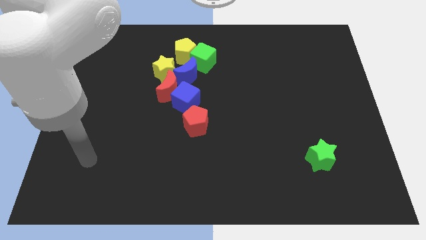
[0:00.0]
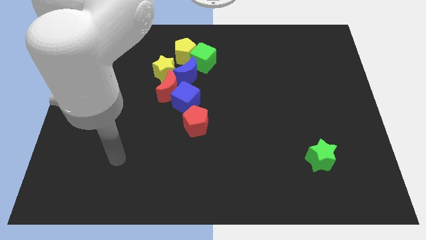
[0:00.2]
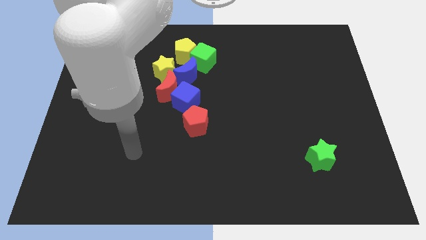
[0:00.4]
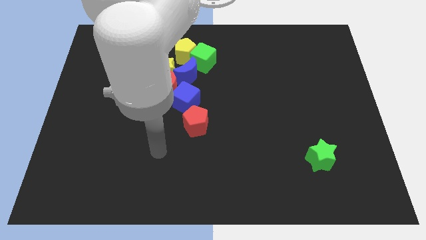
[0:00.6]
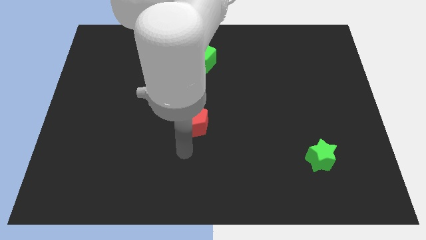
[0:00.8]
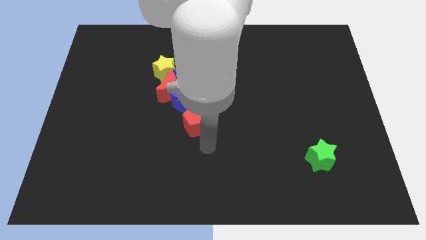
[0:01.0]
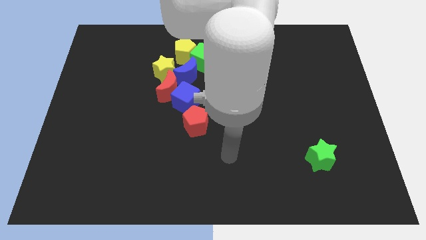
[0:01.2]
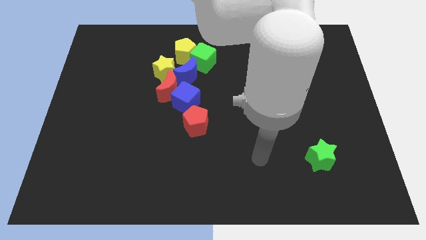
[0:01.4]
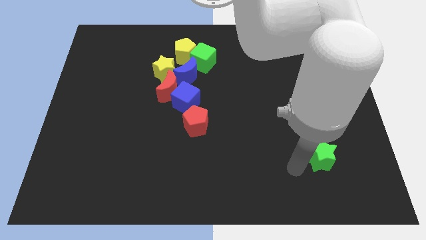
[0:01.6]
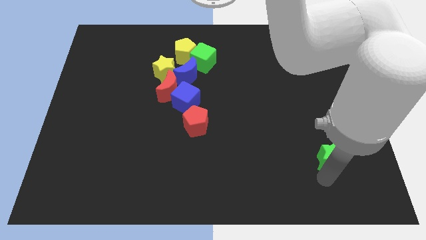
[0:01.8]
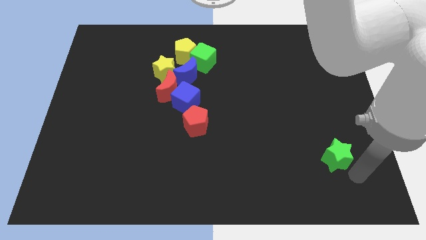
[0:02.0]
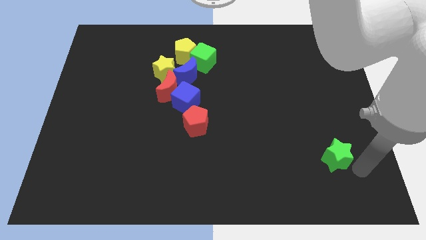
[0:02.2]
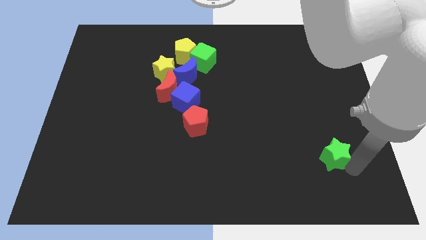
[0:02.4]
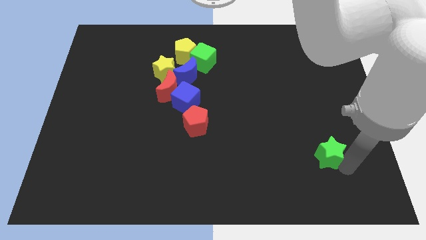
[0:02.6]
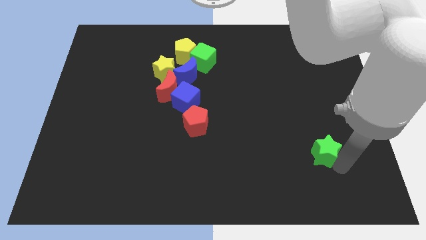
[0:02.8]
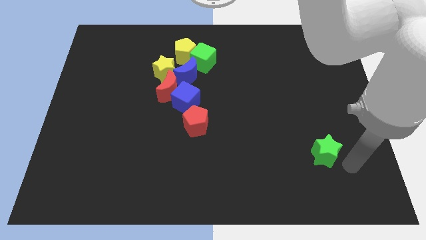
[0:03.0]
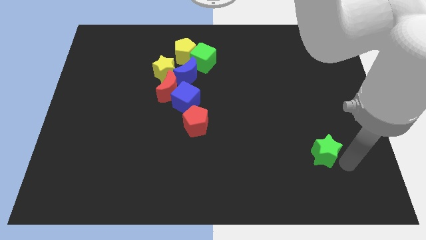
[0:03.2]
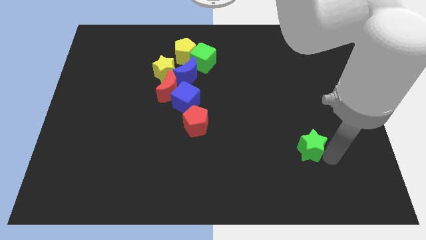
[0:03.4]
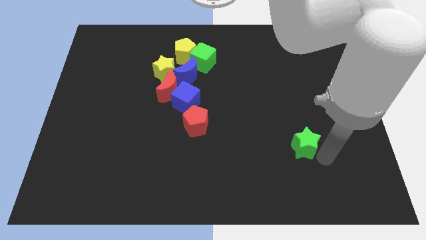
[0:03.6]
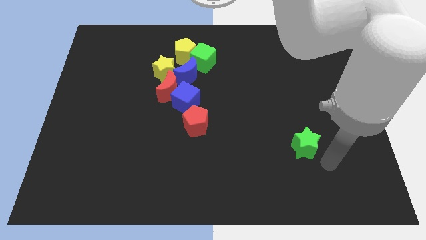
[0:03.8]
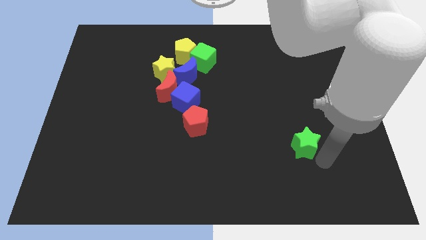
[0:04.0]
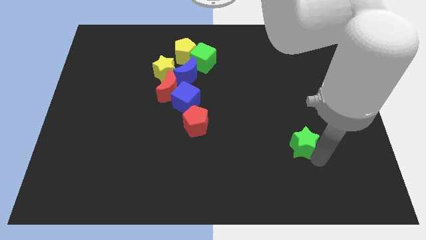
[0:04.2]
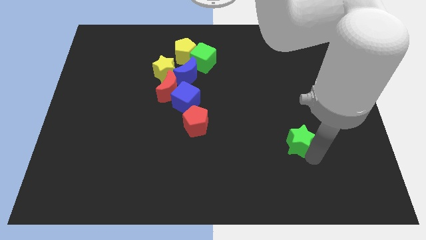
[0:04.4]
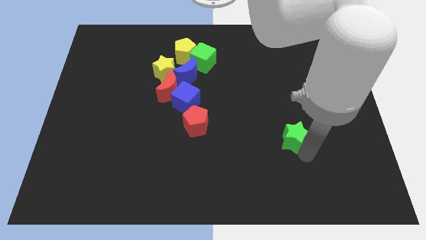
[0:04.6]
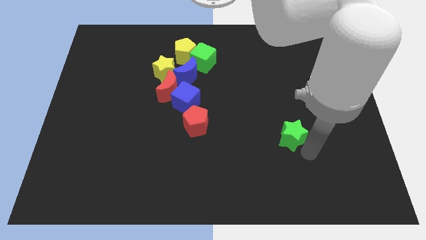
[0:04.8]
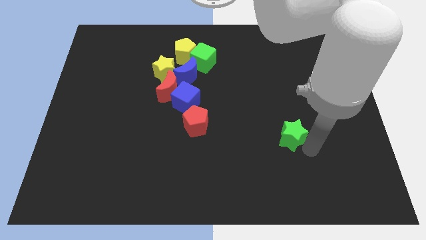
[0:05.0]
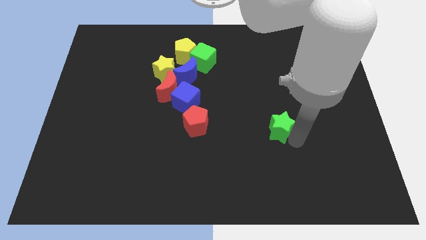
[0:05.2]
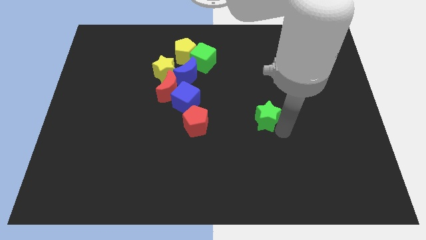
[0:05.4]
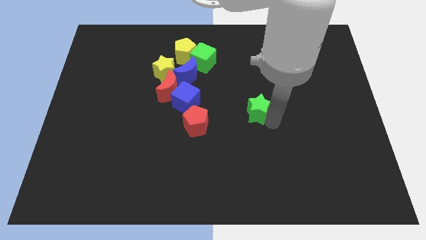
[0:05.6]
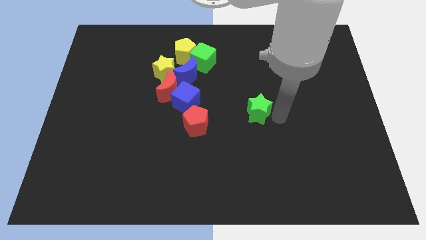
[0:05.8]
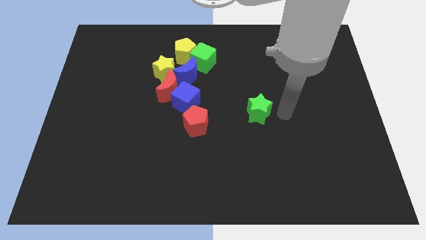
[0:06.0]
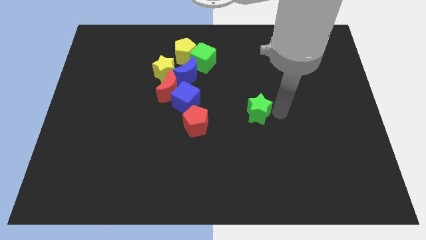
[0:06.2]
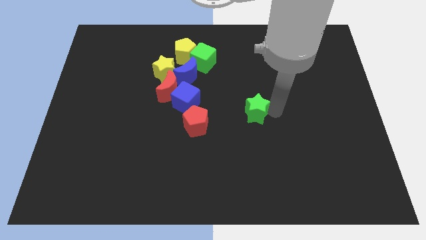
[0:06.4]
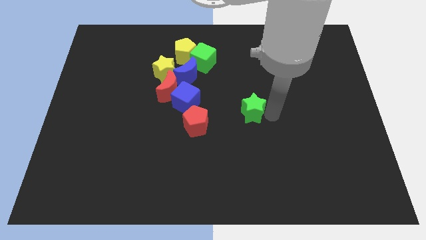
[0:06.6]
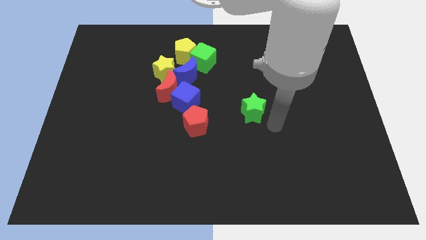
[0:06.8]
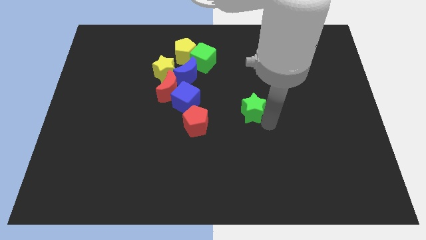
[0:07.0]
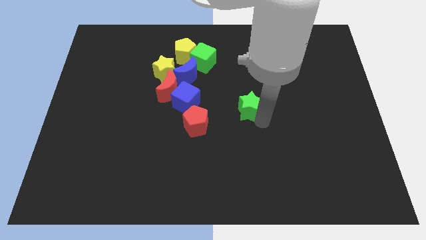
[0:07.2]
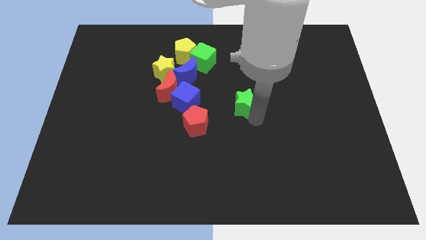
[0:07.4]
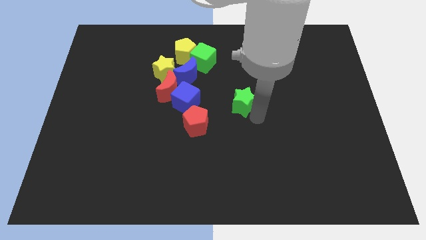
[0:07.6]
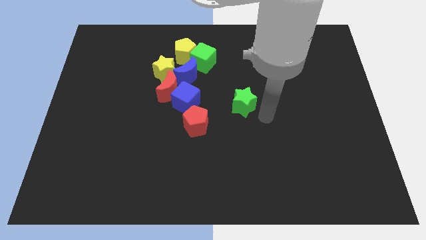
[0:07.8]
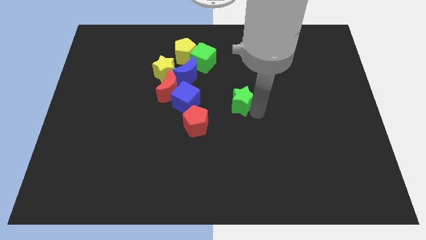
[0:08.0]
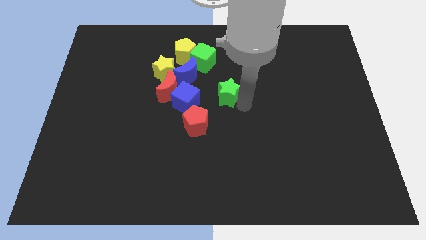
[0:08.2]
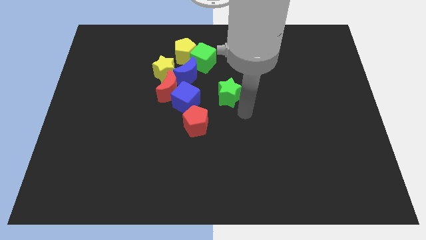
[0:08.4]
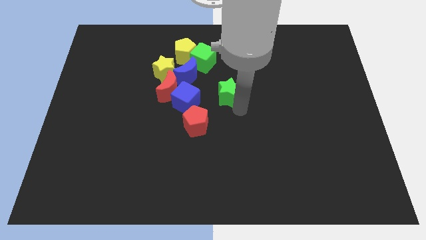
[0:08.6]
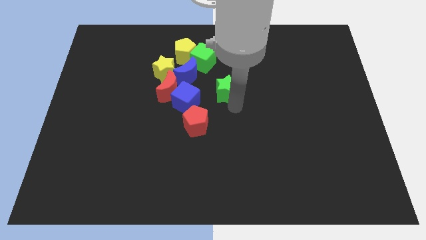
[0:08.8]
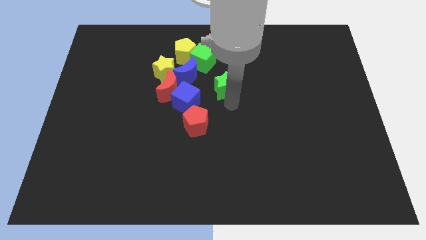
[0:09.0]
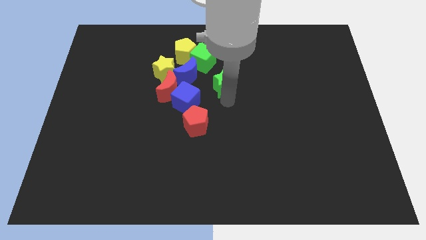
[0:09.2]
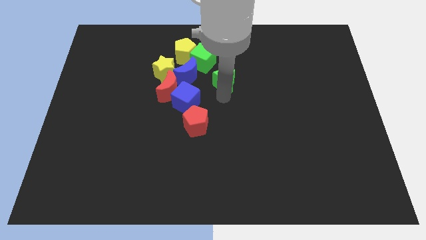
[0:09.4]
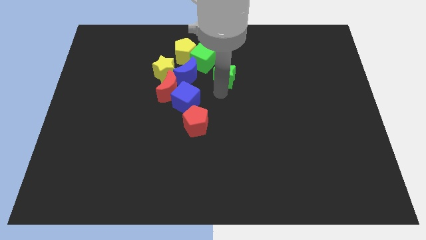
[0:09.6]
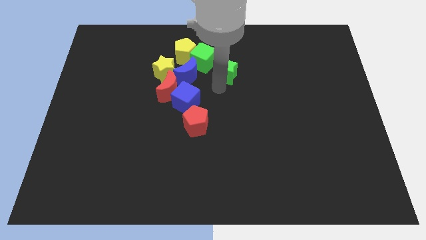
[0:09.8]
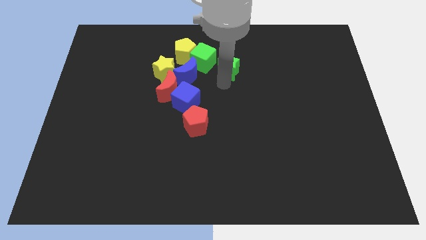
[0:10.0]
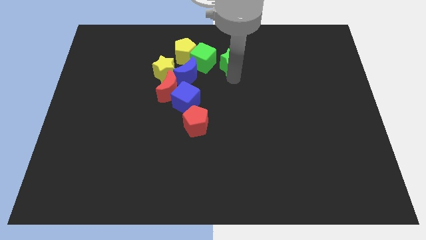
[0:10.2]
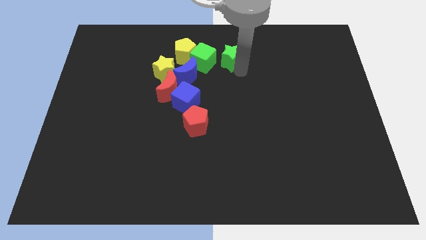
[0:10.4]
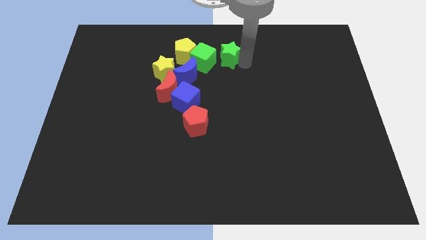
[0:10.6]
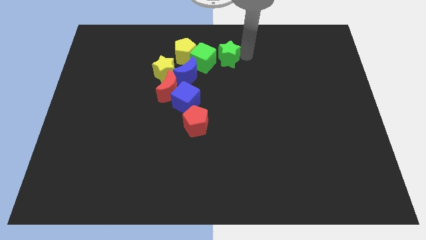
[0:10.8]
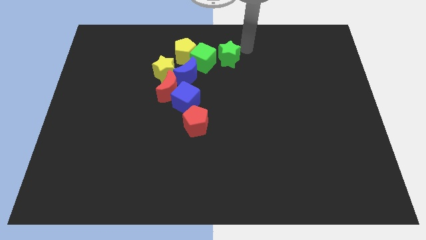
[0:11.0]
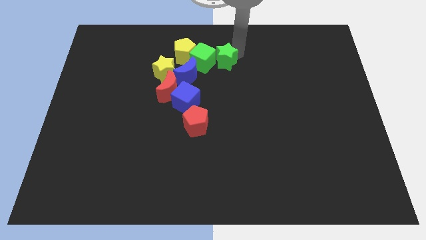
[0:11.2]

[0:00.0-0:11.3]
slide the green star next to the green cube

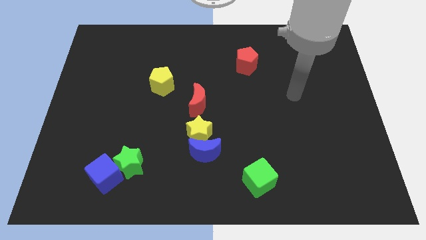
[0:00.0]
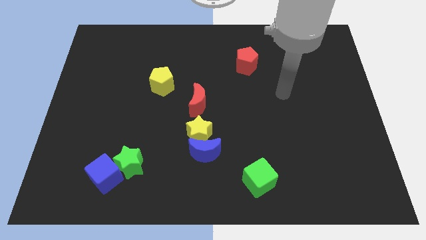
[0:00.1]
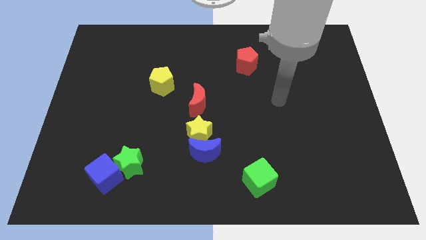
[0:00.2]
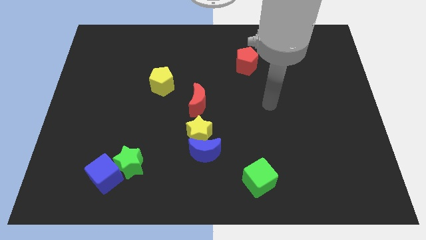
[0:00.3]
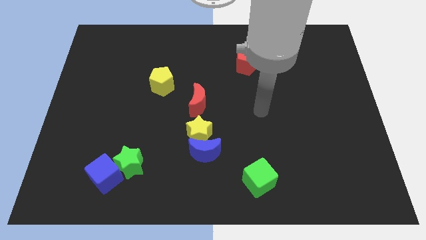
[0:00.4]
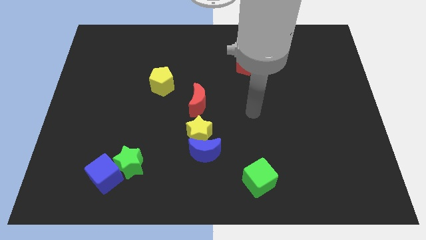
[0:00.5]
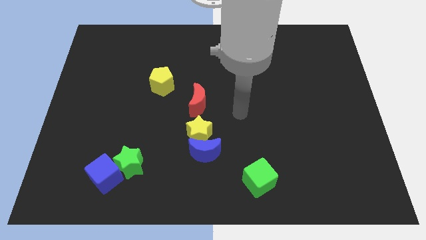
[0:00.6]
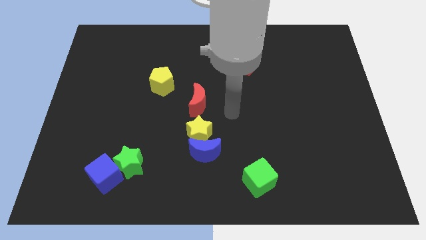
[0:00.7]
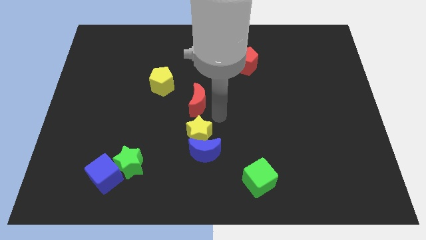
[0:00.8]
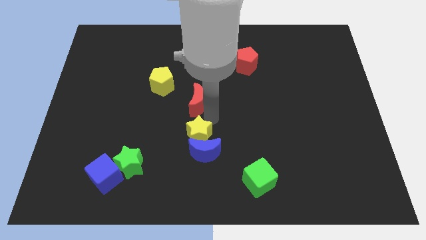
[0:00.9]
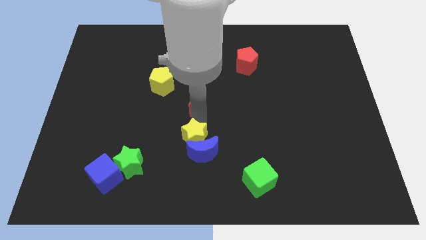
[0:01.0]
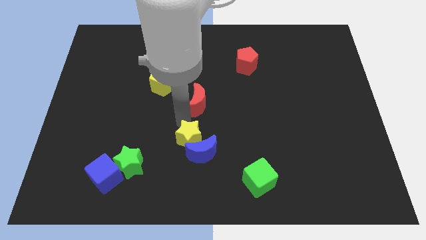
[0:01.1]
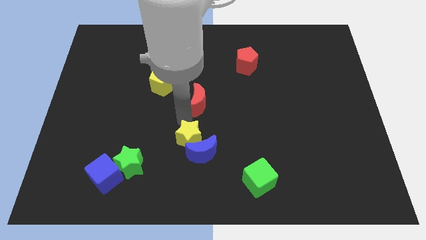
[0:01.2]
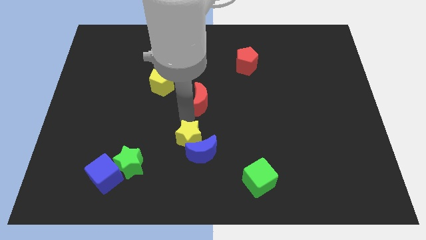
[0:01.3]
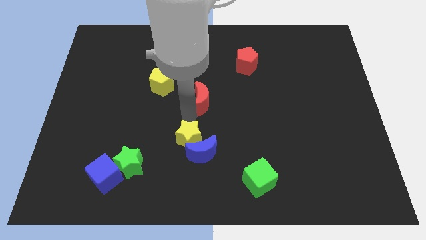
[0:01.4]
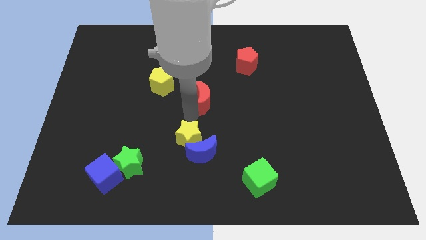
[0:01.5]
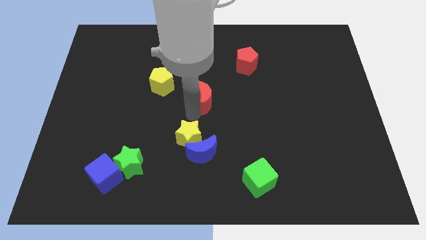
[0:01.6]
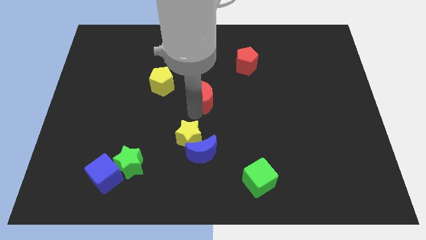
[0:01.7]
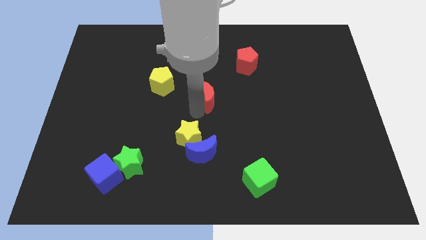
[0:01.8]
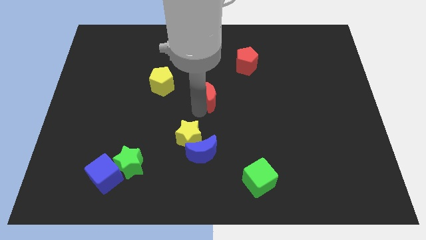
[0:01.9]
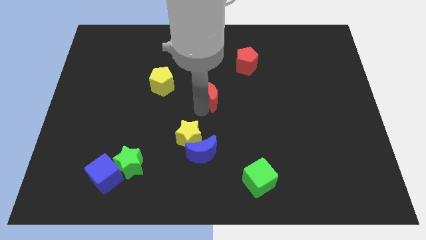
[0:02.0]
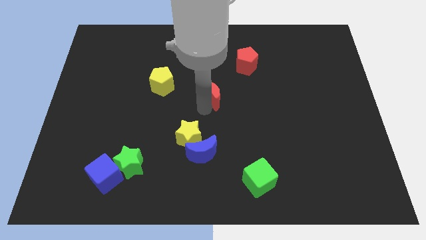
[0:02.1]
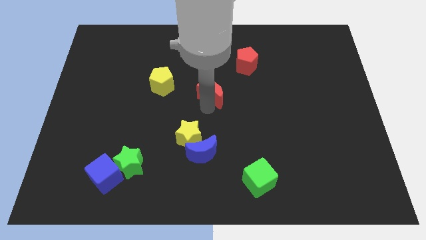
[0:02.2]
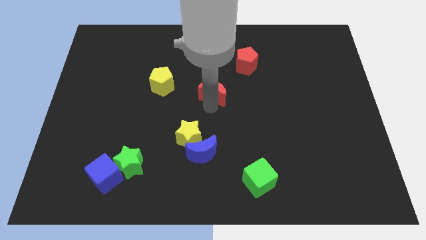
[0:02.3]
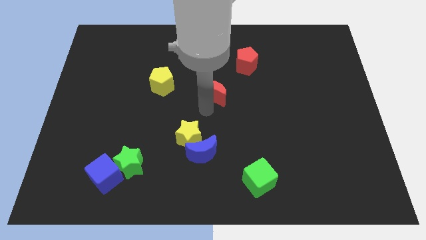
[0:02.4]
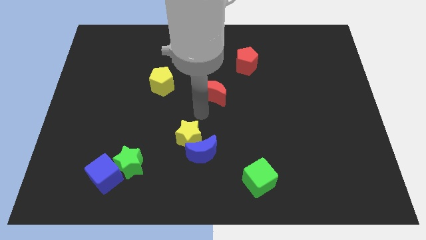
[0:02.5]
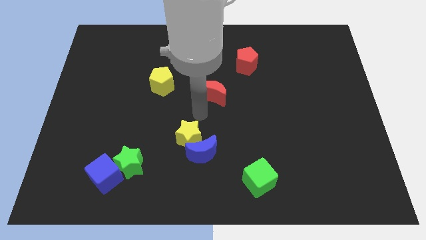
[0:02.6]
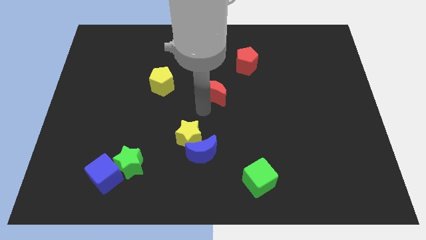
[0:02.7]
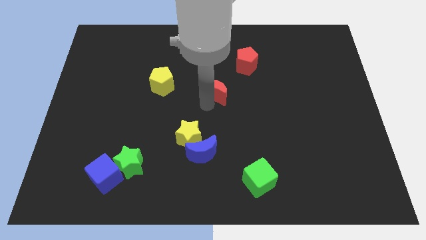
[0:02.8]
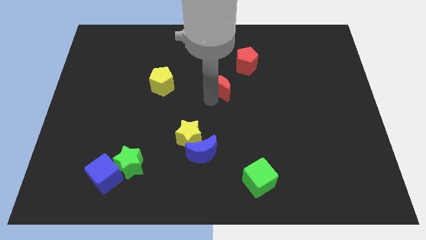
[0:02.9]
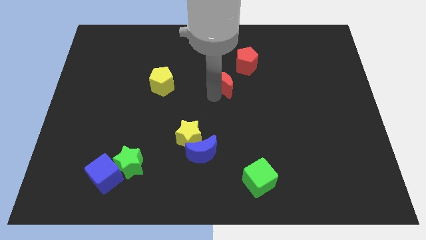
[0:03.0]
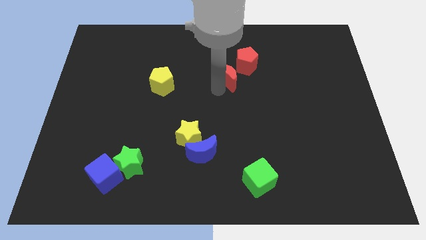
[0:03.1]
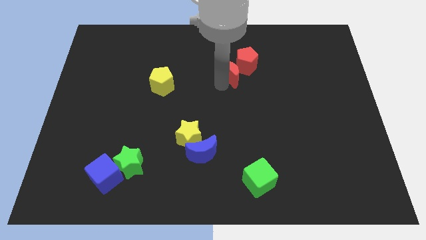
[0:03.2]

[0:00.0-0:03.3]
push the red moon next to the red pentagon
